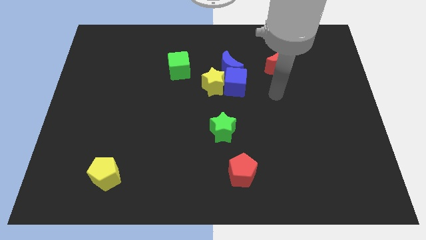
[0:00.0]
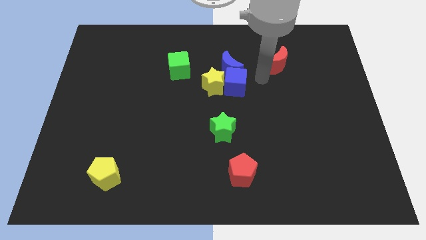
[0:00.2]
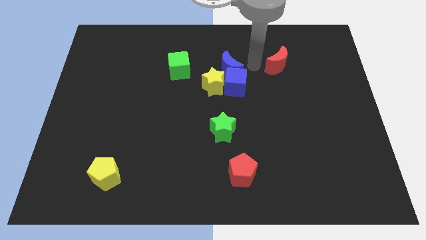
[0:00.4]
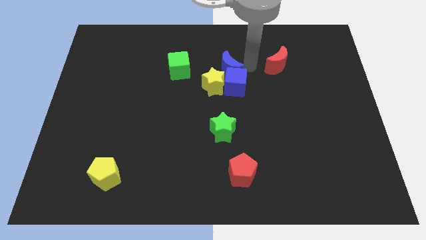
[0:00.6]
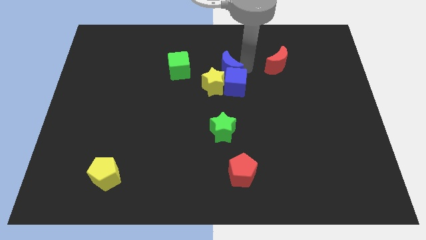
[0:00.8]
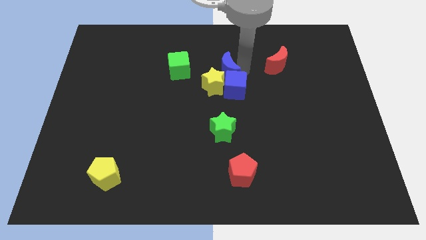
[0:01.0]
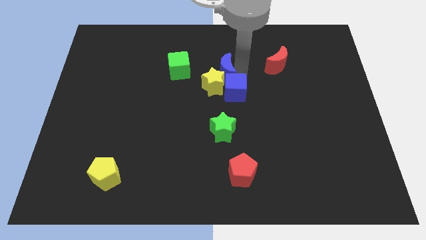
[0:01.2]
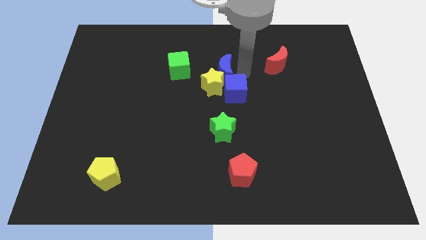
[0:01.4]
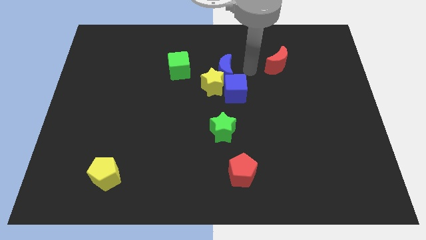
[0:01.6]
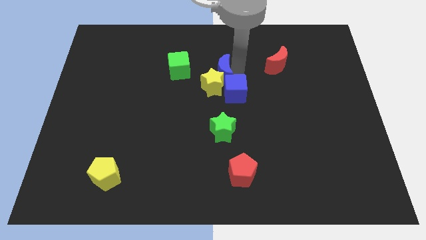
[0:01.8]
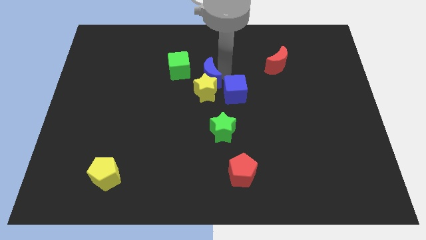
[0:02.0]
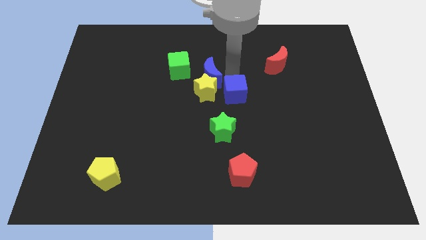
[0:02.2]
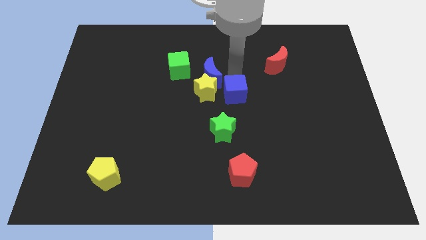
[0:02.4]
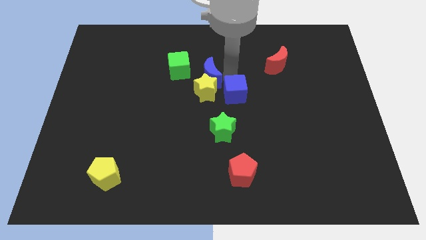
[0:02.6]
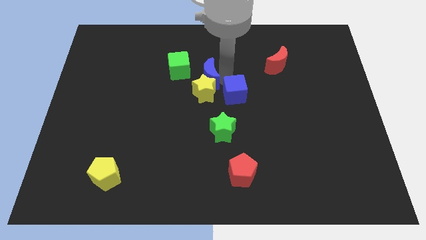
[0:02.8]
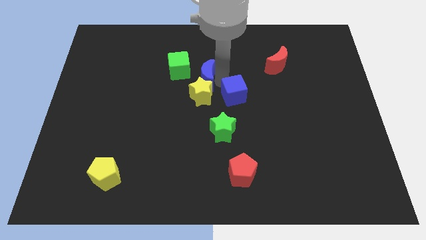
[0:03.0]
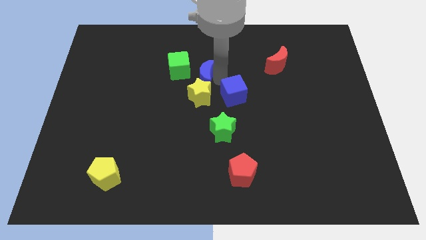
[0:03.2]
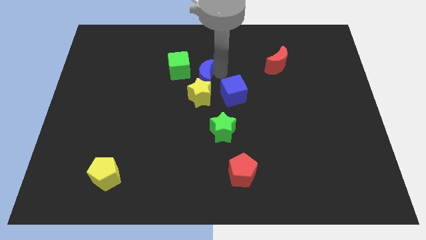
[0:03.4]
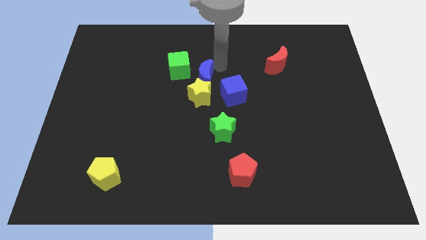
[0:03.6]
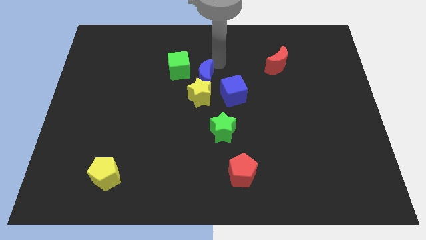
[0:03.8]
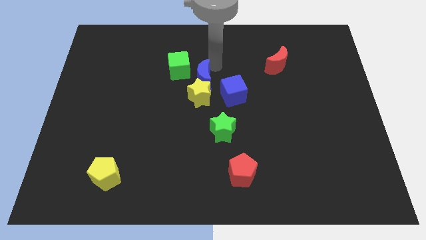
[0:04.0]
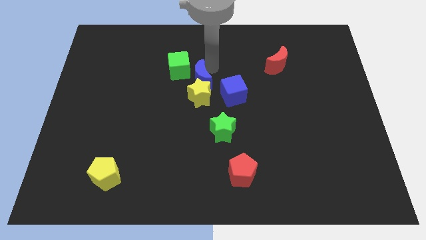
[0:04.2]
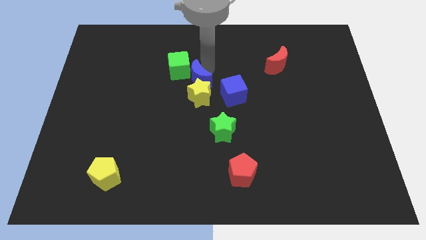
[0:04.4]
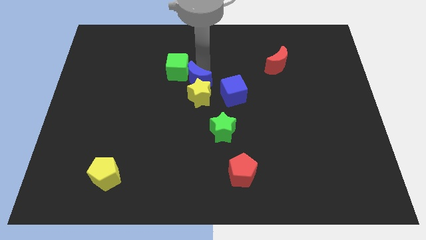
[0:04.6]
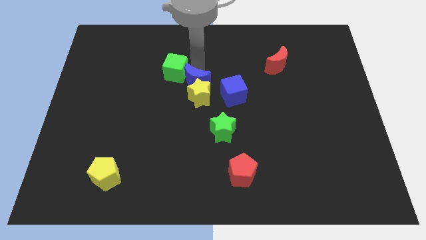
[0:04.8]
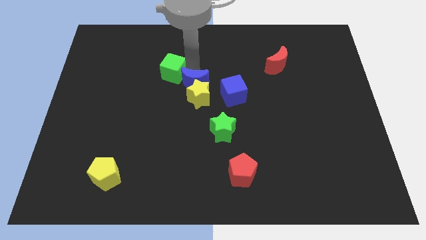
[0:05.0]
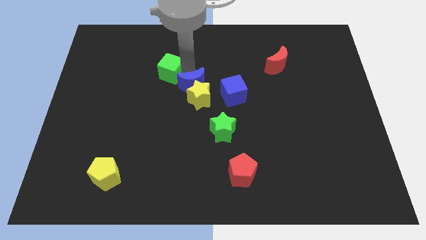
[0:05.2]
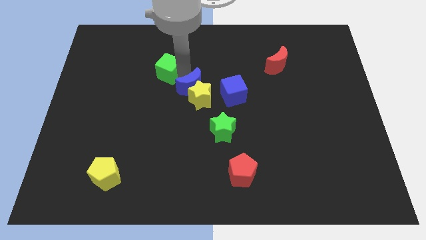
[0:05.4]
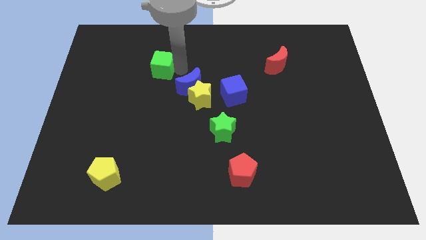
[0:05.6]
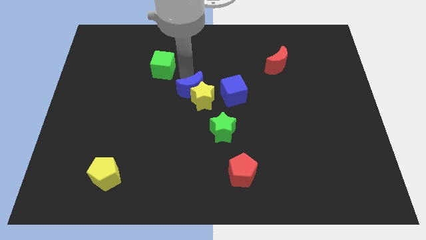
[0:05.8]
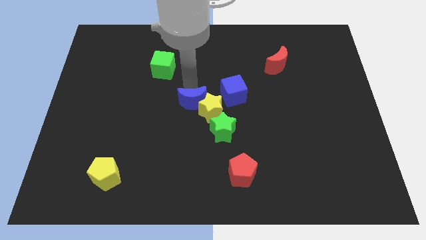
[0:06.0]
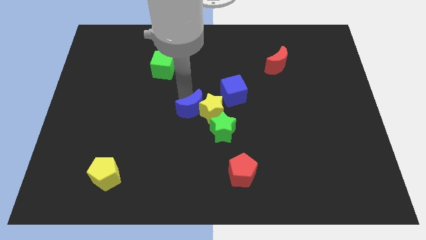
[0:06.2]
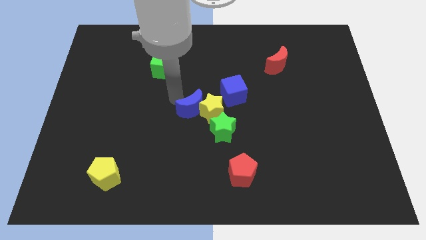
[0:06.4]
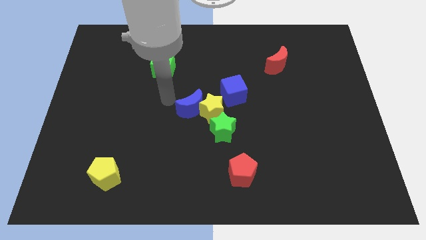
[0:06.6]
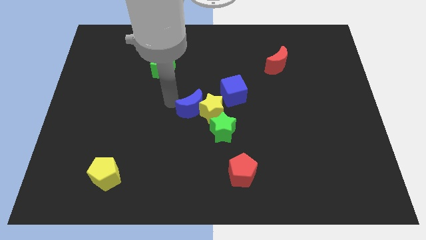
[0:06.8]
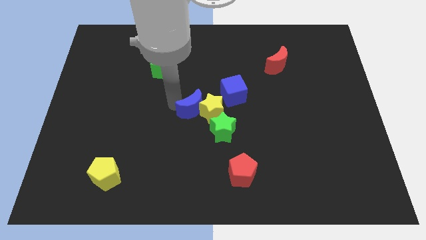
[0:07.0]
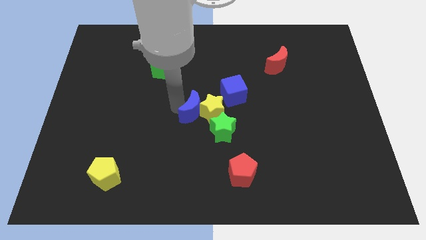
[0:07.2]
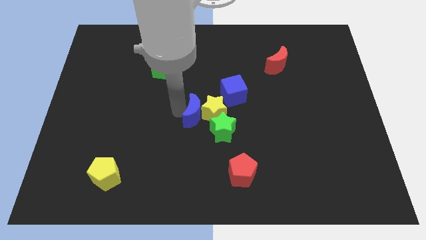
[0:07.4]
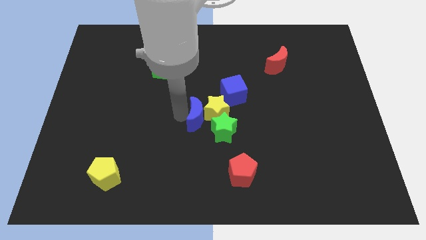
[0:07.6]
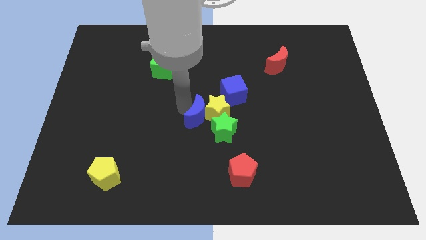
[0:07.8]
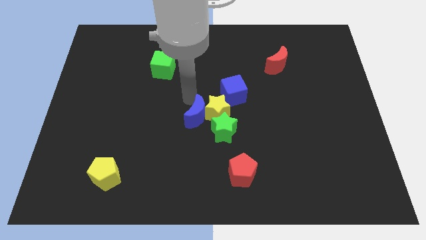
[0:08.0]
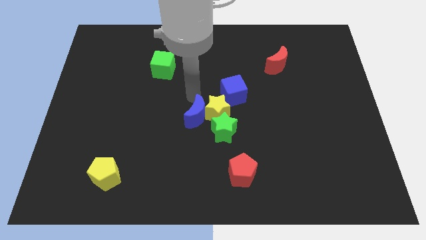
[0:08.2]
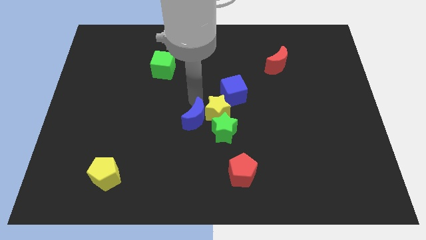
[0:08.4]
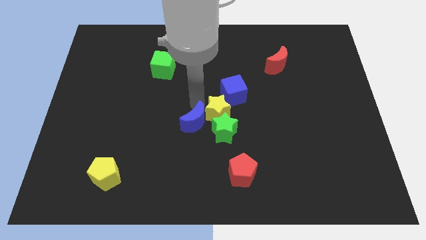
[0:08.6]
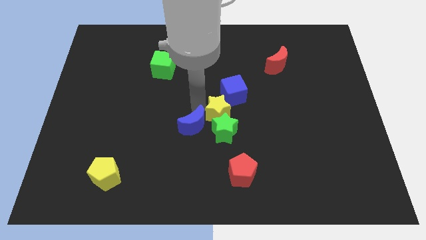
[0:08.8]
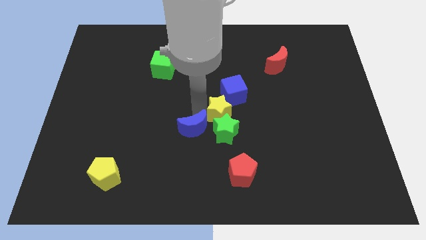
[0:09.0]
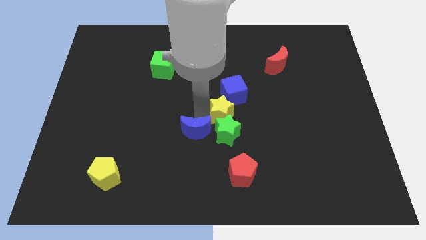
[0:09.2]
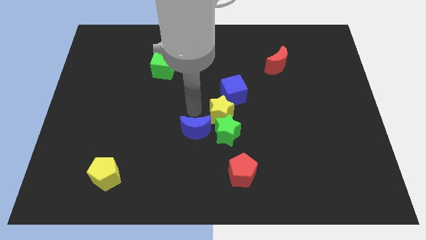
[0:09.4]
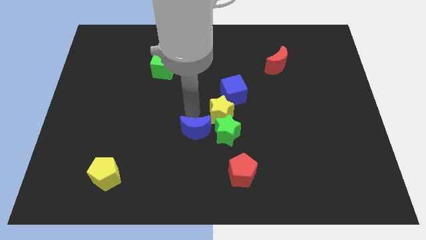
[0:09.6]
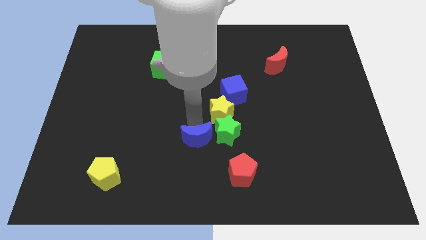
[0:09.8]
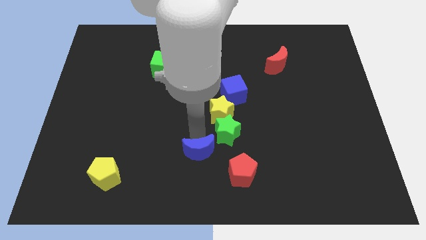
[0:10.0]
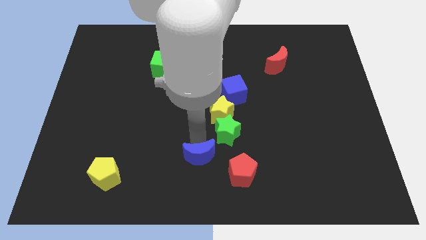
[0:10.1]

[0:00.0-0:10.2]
slide the blue moon to the bottom

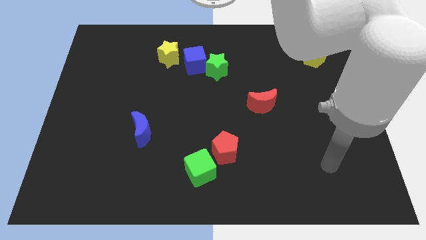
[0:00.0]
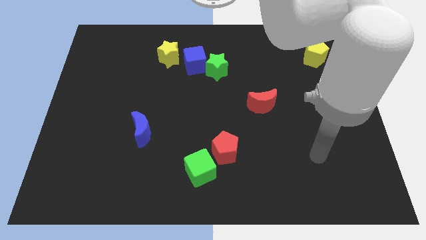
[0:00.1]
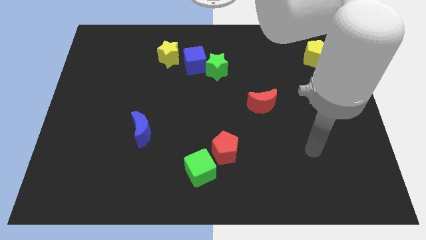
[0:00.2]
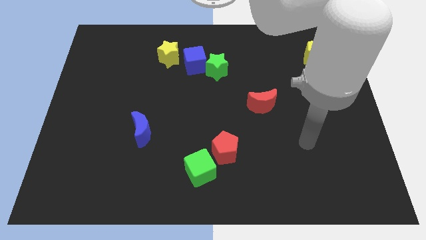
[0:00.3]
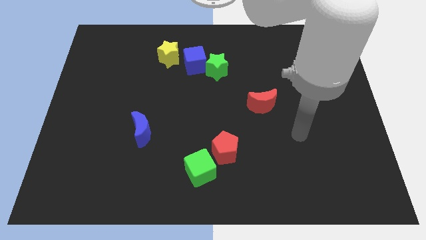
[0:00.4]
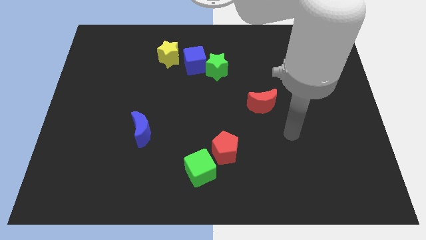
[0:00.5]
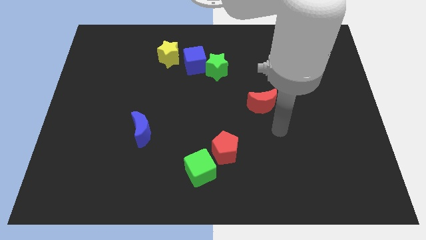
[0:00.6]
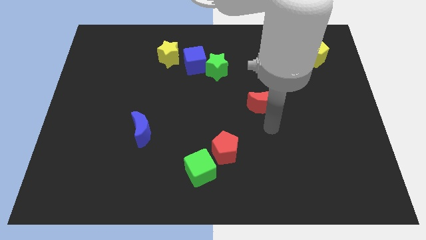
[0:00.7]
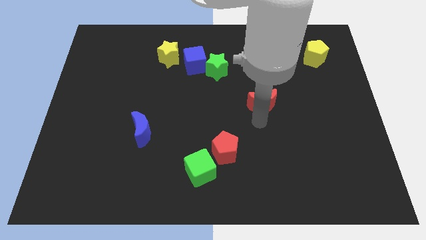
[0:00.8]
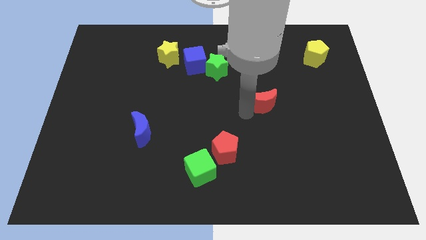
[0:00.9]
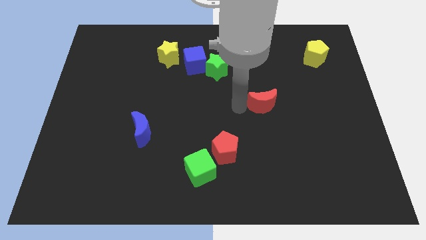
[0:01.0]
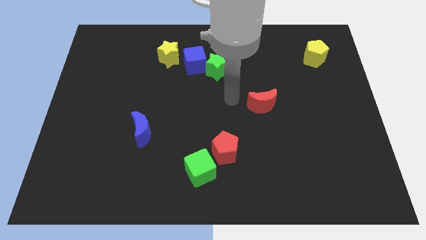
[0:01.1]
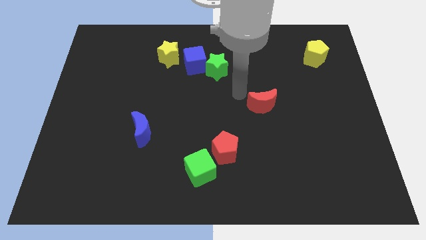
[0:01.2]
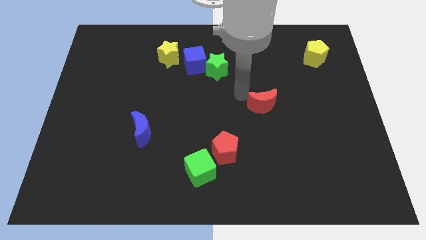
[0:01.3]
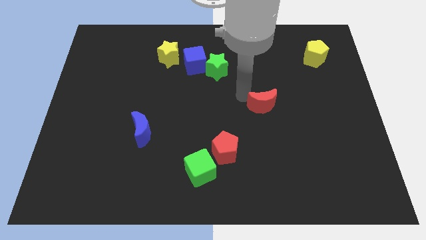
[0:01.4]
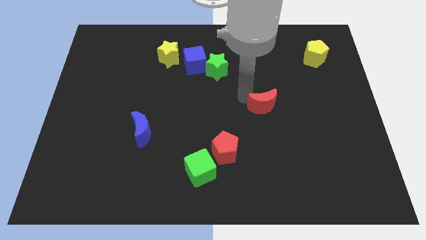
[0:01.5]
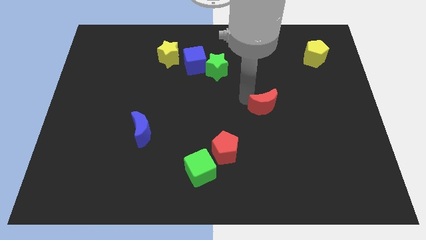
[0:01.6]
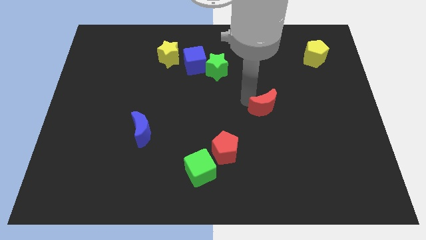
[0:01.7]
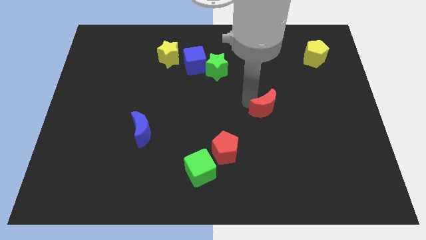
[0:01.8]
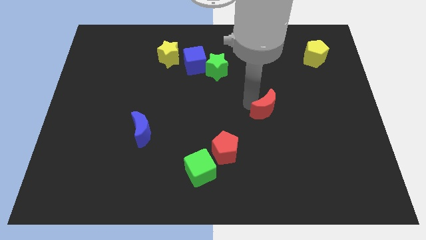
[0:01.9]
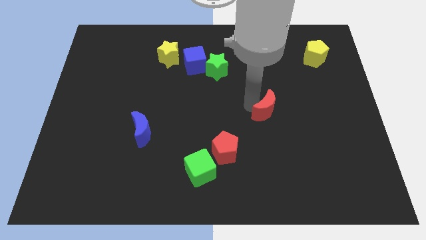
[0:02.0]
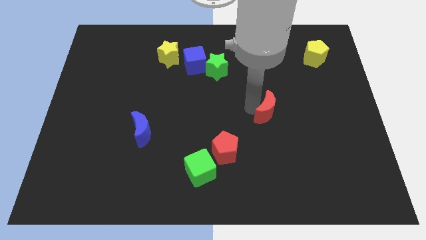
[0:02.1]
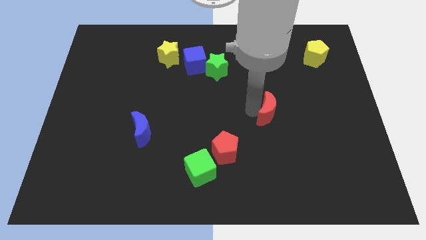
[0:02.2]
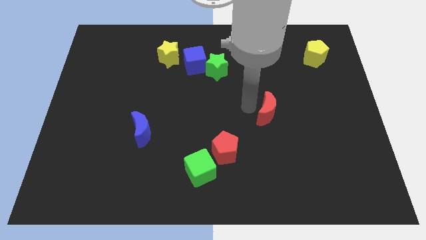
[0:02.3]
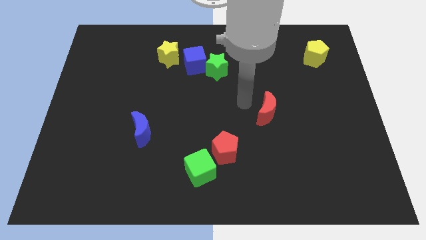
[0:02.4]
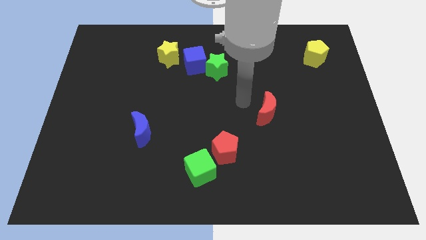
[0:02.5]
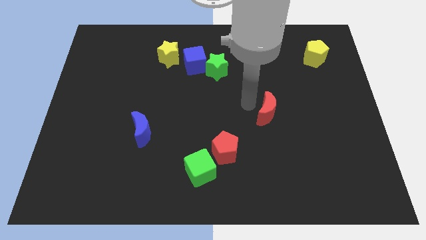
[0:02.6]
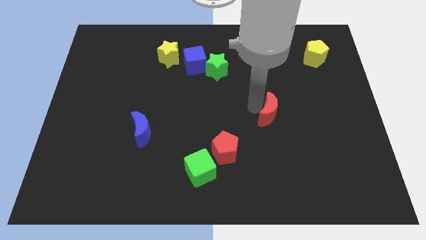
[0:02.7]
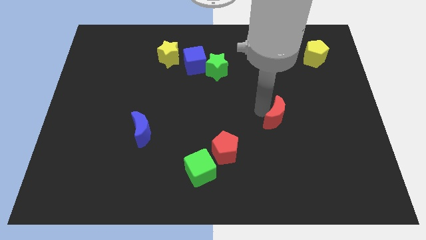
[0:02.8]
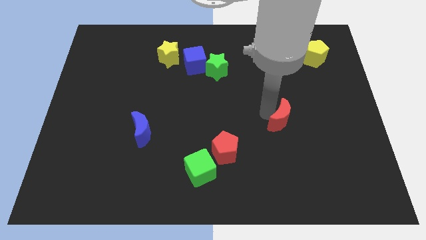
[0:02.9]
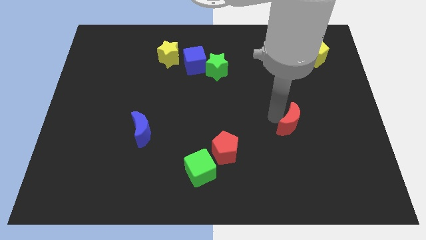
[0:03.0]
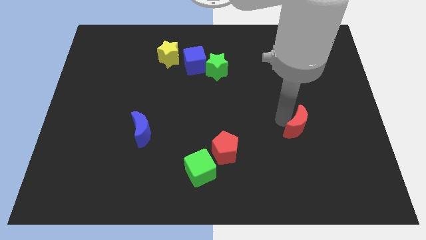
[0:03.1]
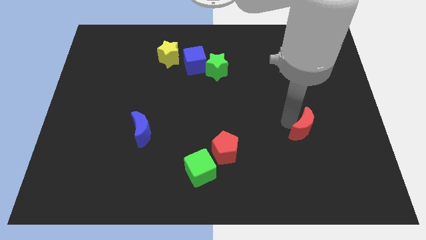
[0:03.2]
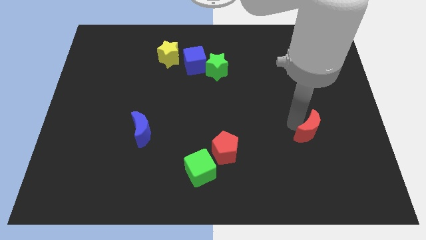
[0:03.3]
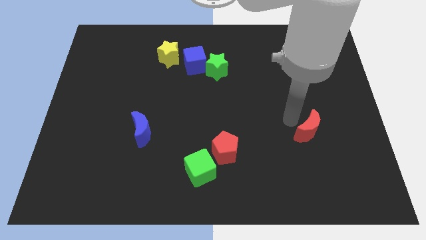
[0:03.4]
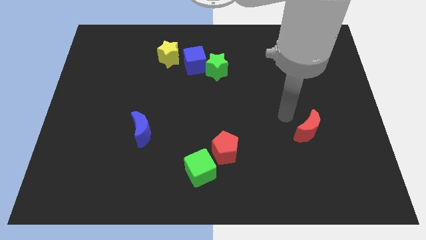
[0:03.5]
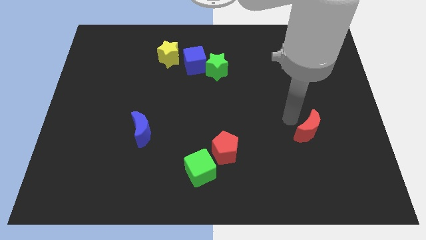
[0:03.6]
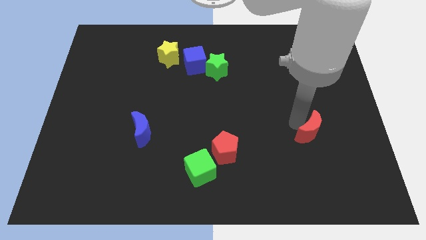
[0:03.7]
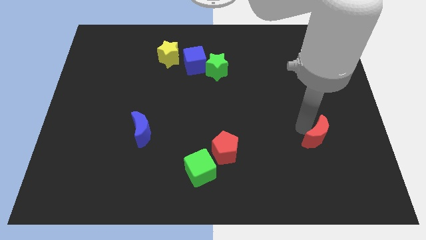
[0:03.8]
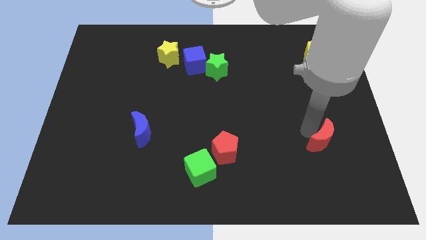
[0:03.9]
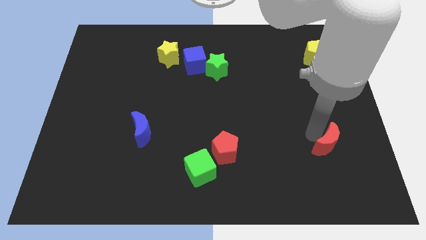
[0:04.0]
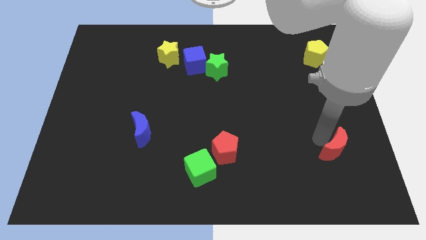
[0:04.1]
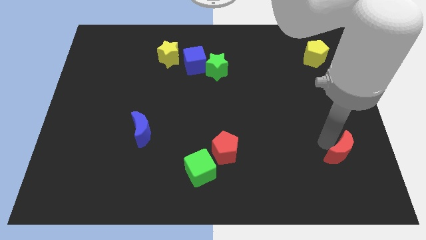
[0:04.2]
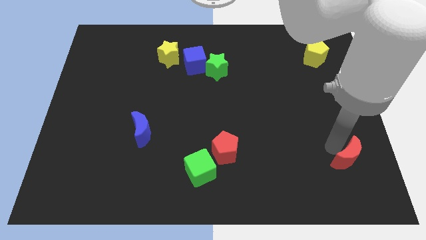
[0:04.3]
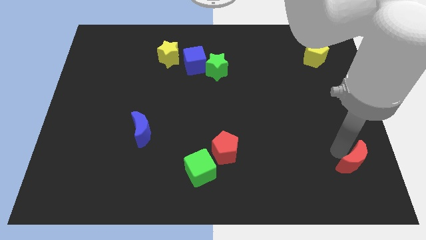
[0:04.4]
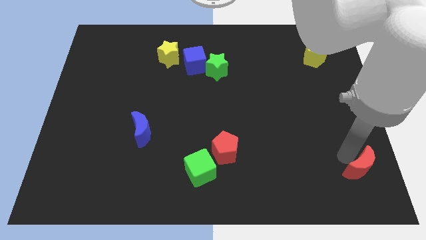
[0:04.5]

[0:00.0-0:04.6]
move the red moon to the bottom right corner
